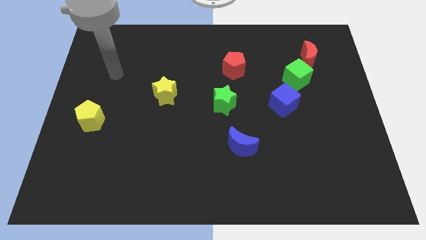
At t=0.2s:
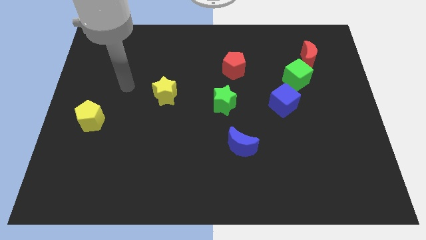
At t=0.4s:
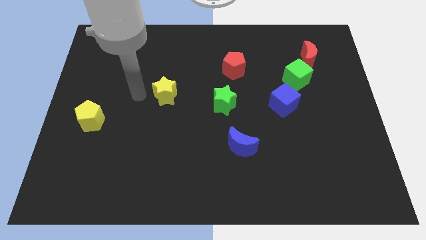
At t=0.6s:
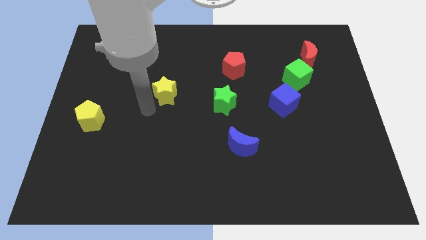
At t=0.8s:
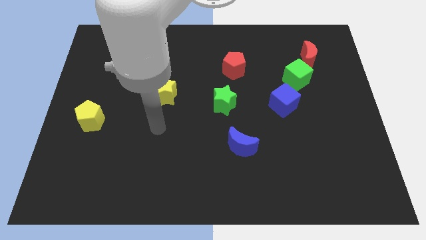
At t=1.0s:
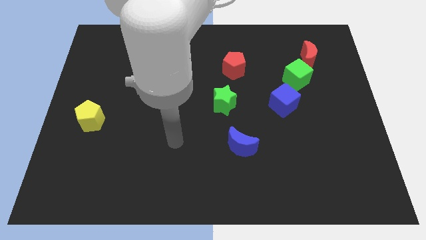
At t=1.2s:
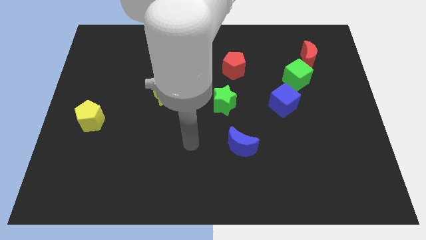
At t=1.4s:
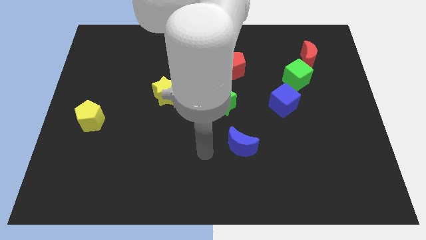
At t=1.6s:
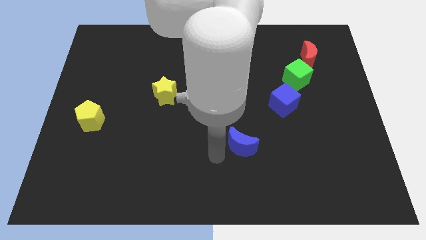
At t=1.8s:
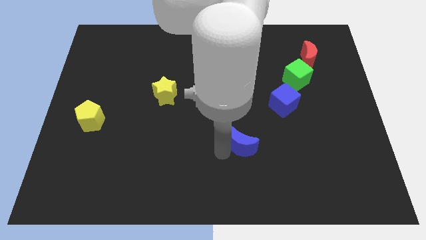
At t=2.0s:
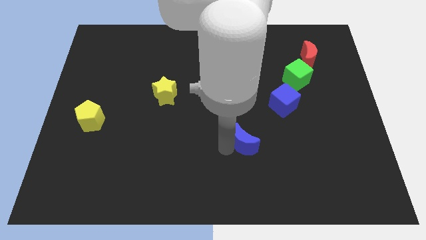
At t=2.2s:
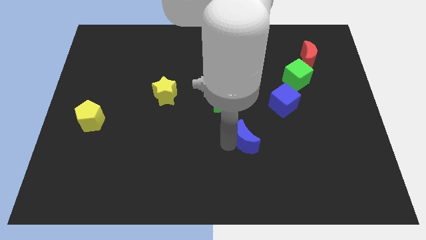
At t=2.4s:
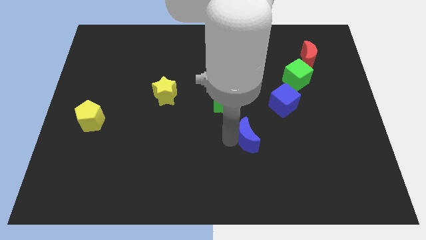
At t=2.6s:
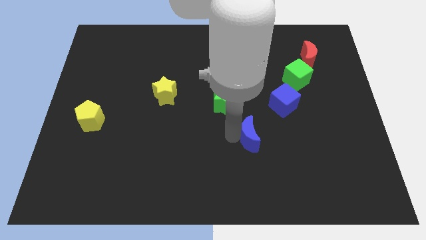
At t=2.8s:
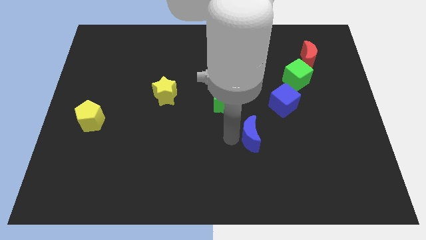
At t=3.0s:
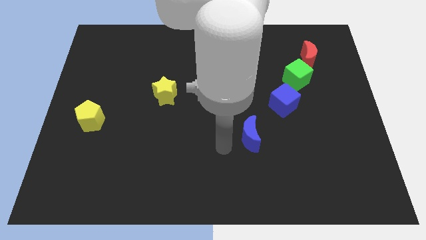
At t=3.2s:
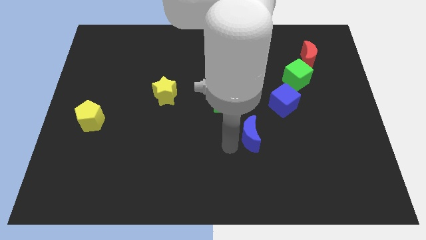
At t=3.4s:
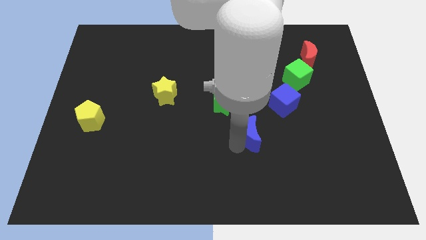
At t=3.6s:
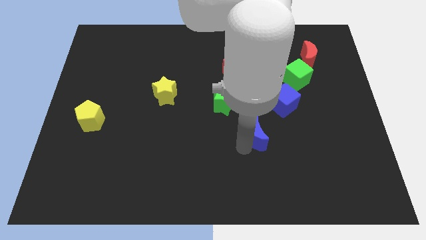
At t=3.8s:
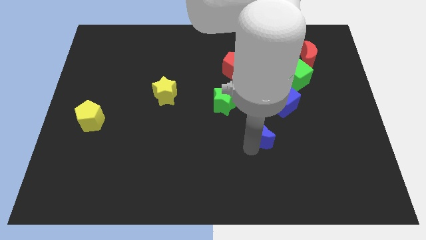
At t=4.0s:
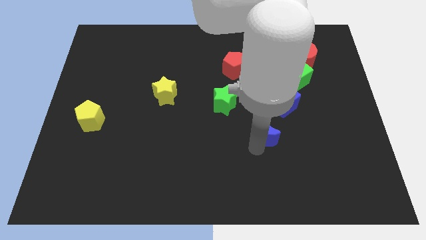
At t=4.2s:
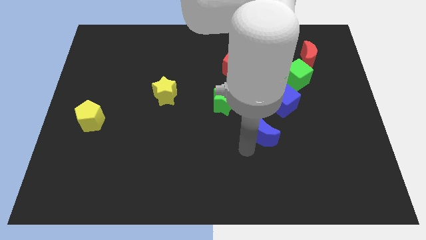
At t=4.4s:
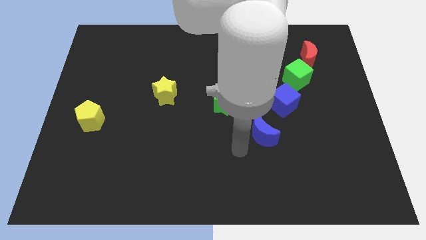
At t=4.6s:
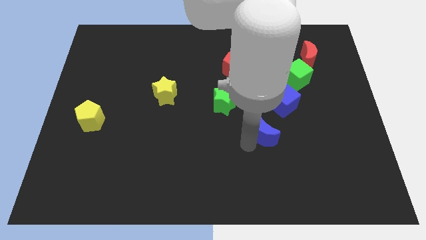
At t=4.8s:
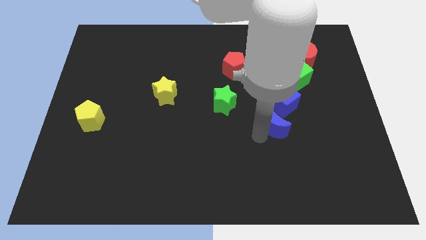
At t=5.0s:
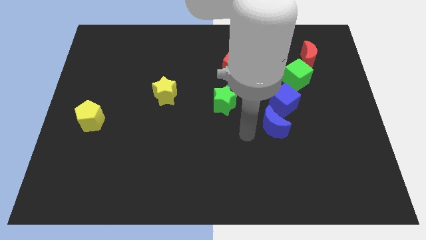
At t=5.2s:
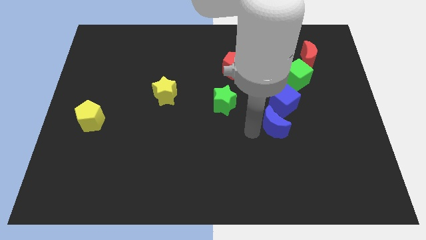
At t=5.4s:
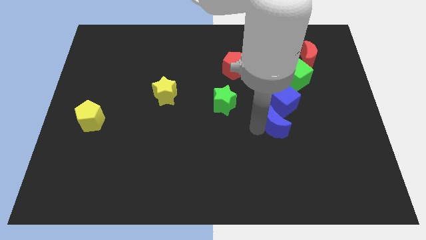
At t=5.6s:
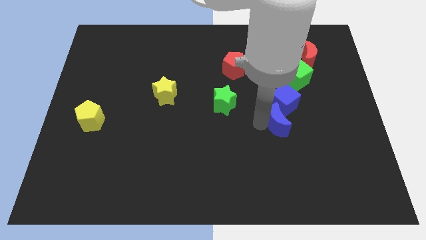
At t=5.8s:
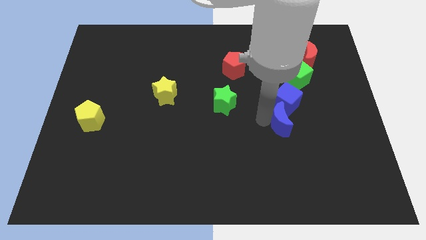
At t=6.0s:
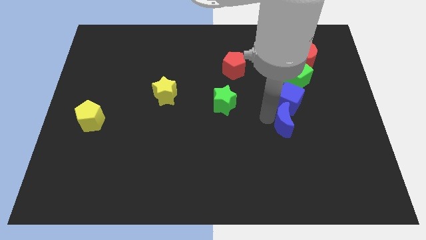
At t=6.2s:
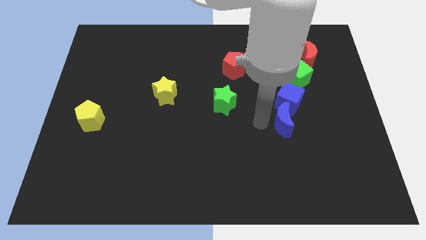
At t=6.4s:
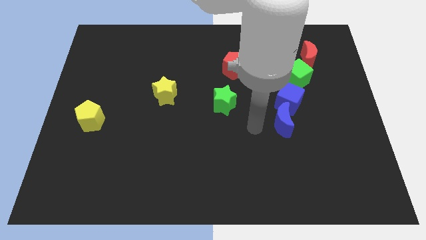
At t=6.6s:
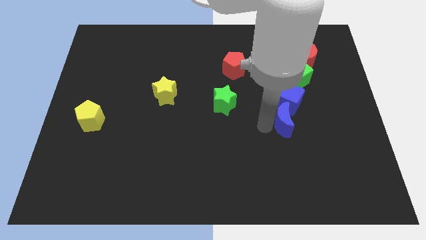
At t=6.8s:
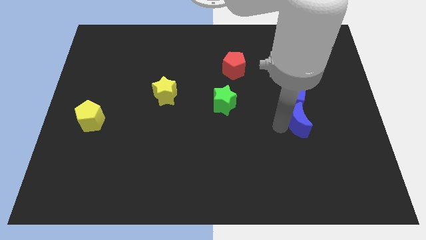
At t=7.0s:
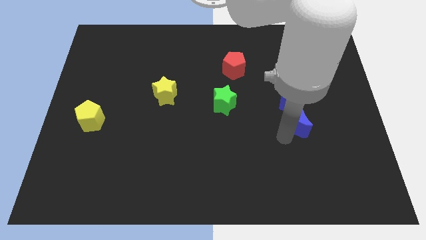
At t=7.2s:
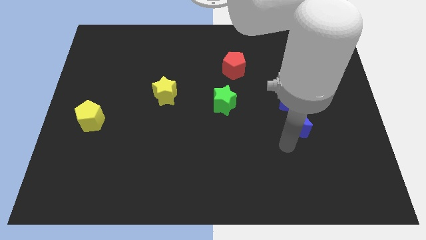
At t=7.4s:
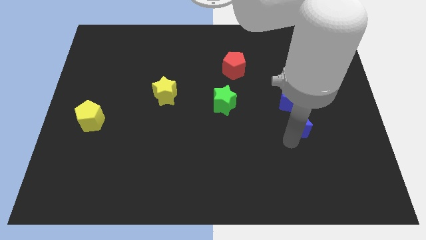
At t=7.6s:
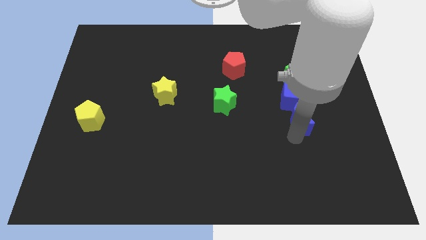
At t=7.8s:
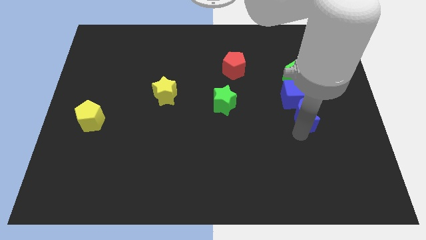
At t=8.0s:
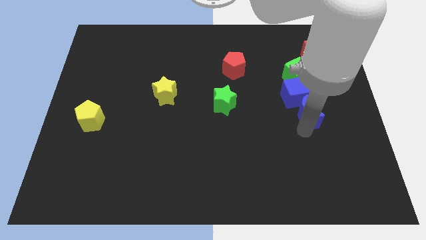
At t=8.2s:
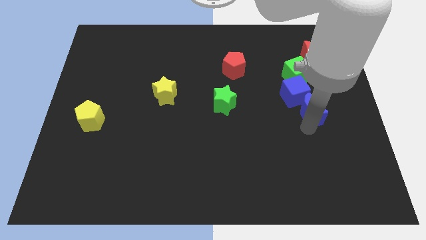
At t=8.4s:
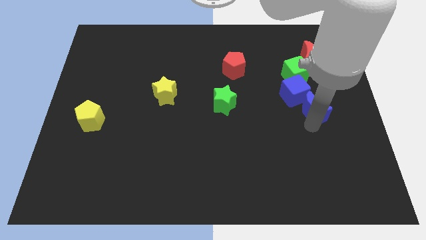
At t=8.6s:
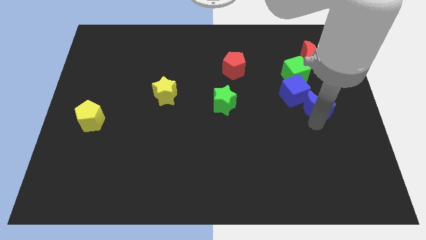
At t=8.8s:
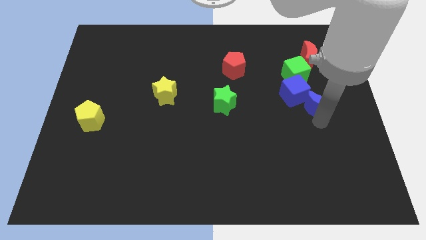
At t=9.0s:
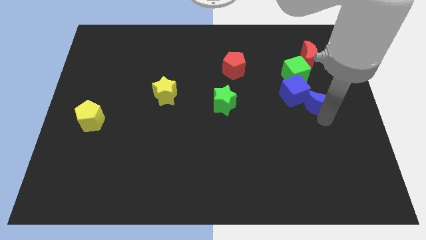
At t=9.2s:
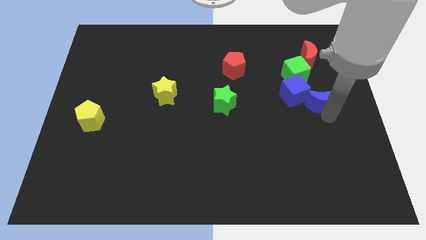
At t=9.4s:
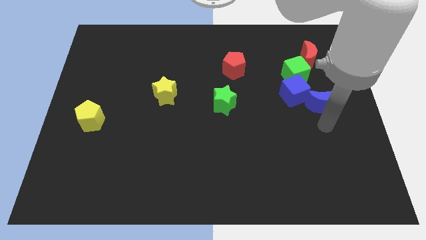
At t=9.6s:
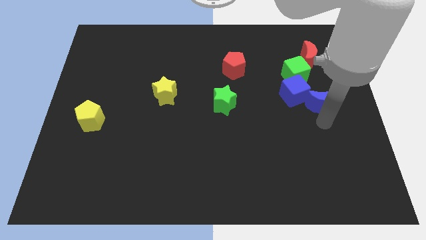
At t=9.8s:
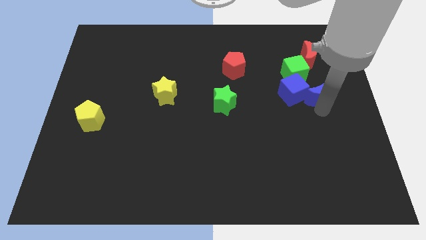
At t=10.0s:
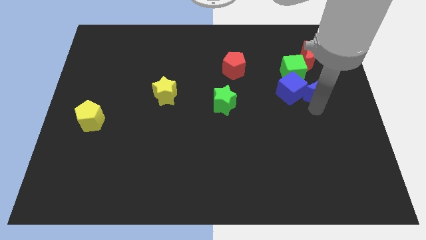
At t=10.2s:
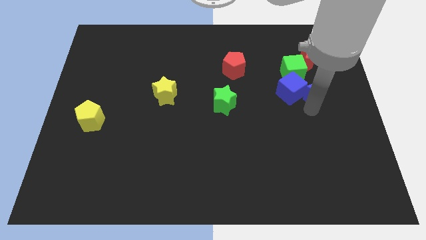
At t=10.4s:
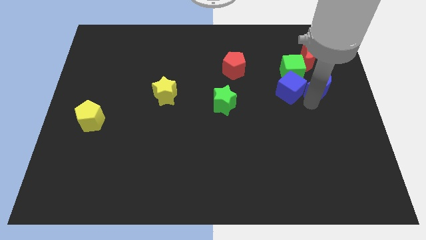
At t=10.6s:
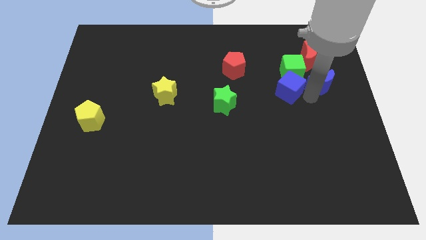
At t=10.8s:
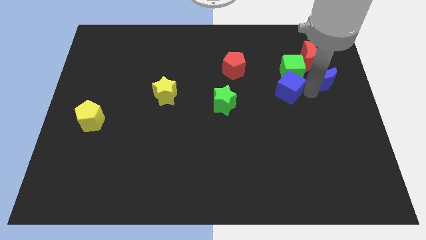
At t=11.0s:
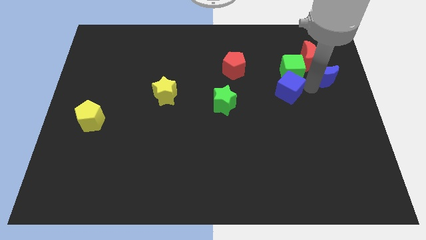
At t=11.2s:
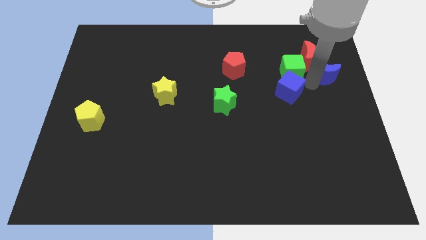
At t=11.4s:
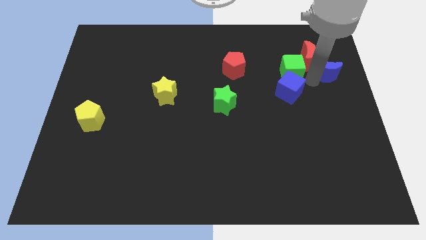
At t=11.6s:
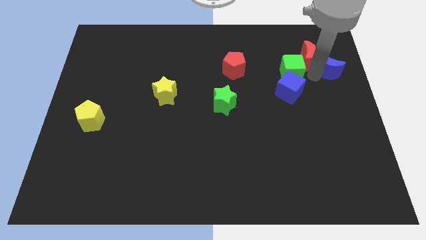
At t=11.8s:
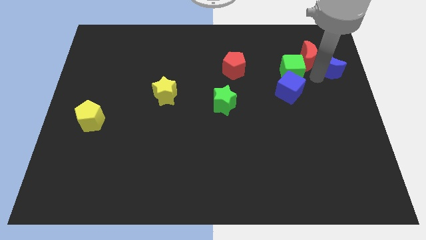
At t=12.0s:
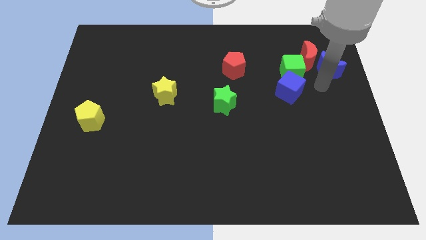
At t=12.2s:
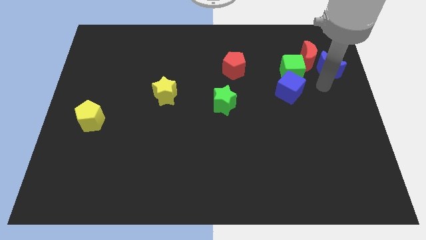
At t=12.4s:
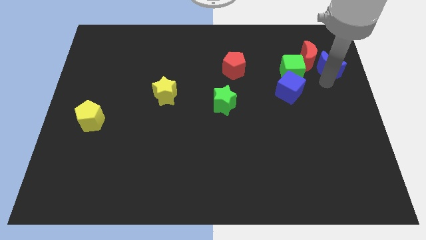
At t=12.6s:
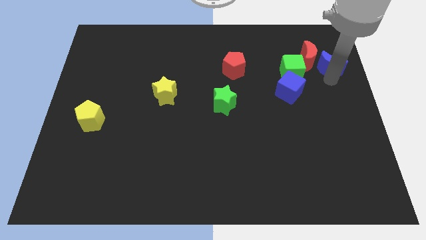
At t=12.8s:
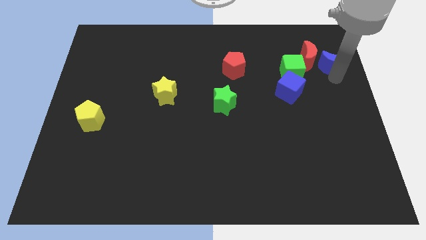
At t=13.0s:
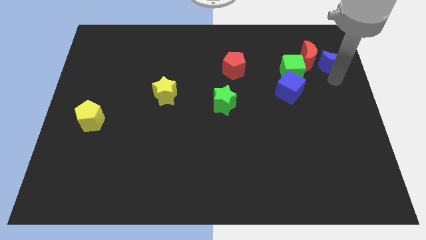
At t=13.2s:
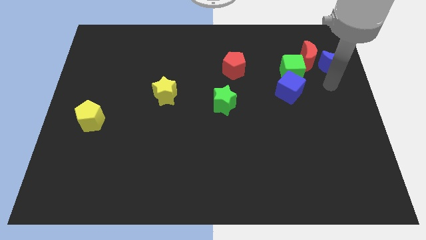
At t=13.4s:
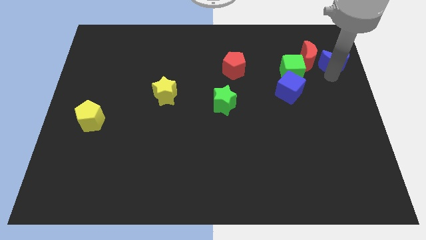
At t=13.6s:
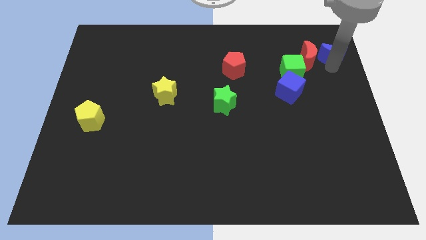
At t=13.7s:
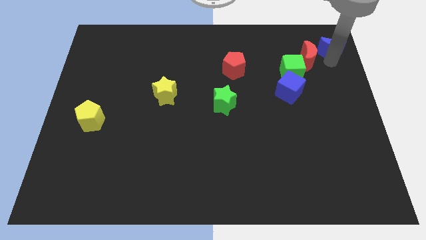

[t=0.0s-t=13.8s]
put the blue moon to the top right corner
